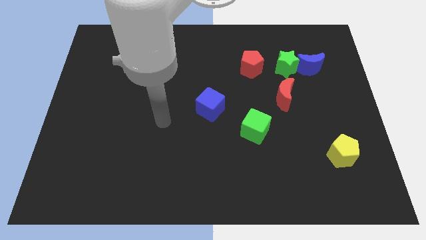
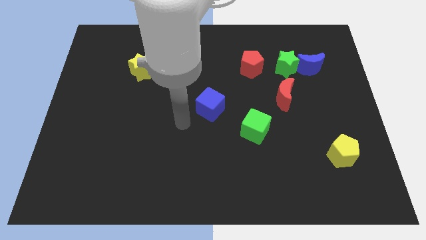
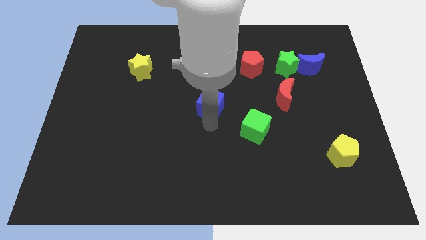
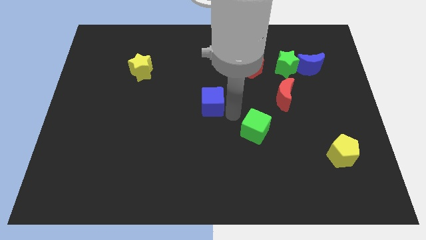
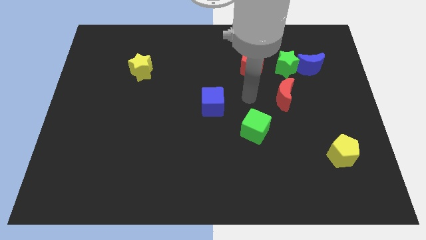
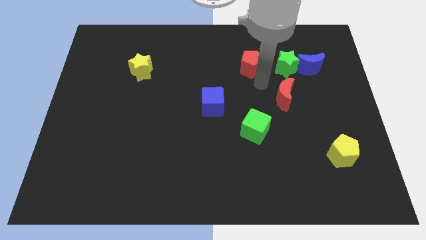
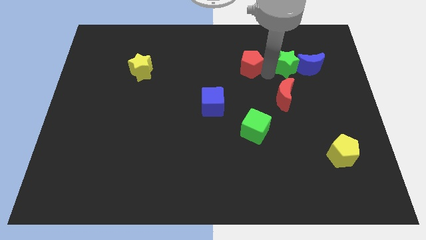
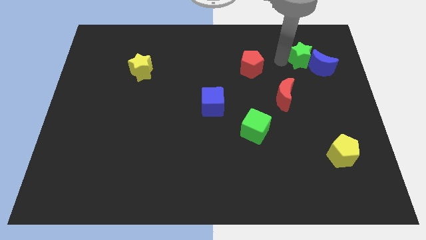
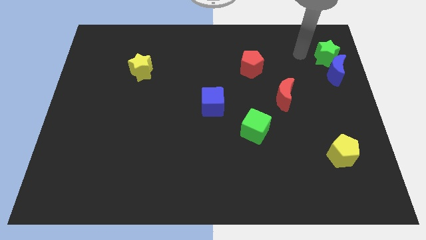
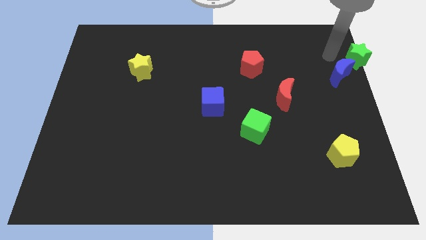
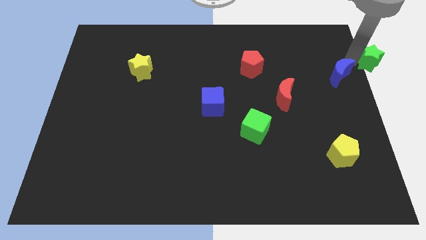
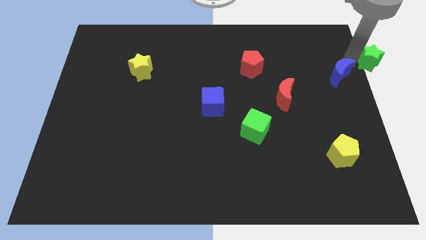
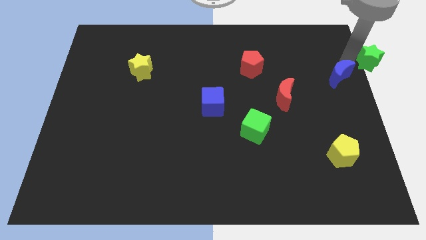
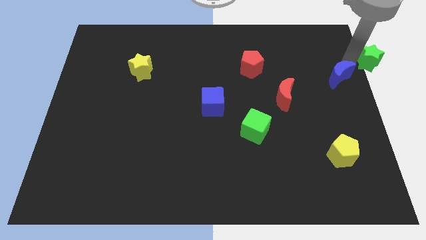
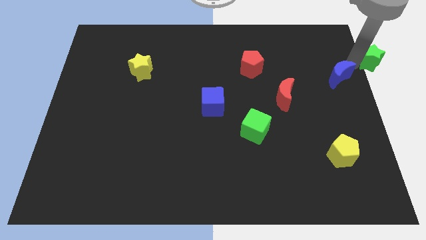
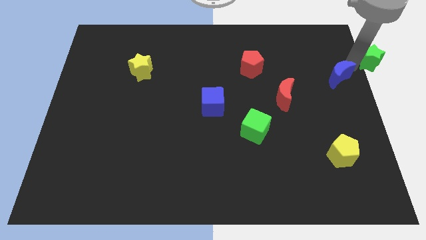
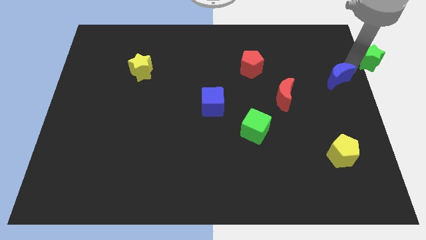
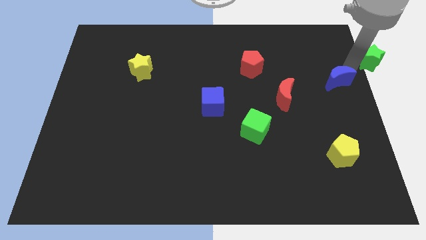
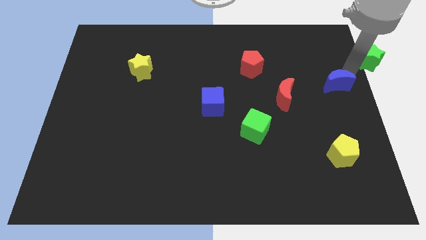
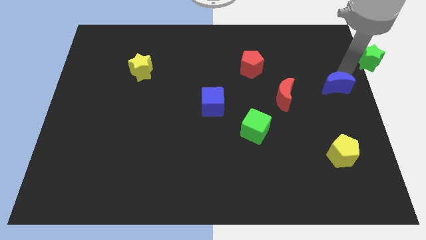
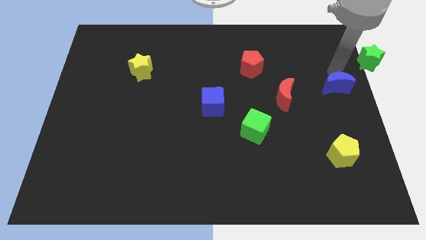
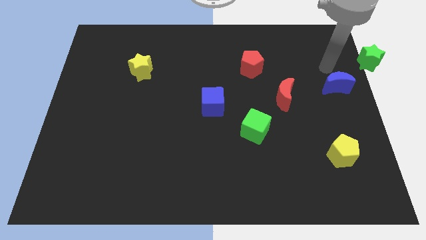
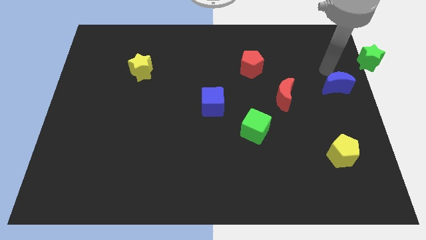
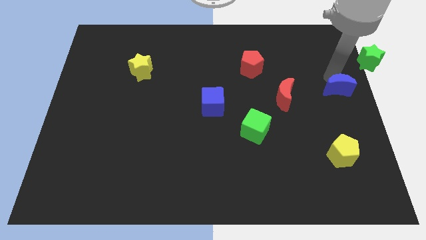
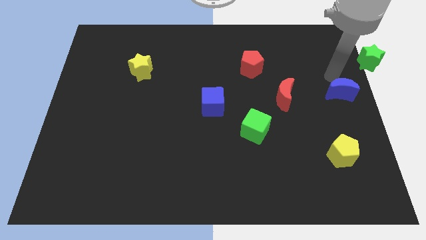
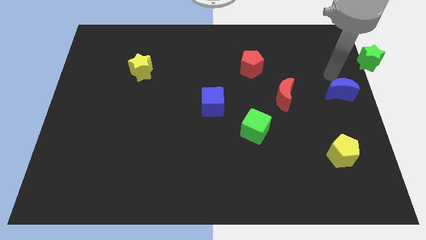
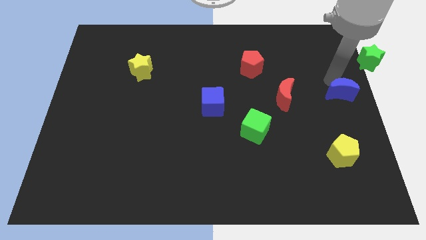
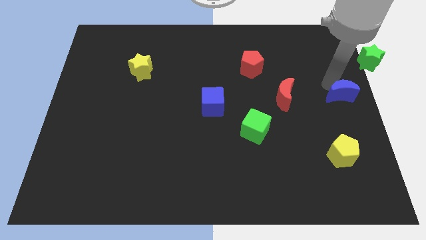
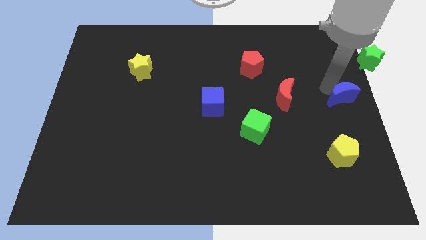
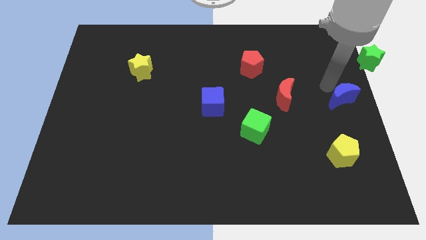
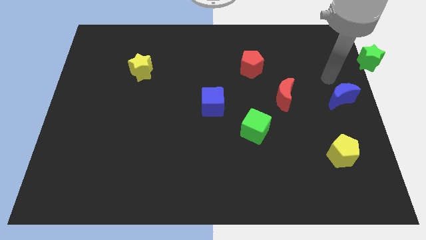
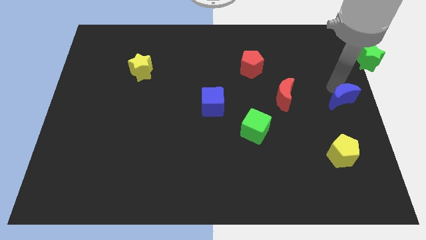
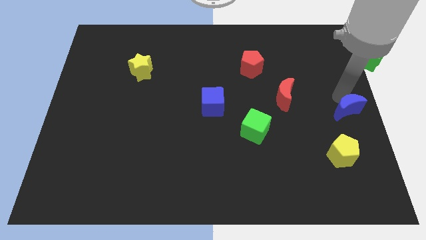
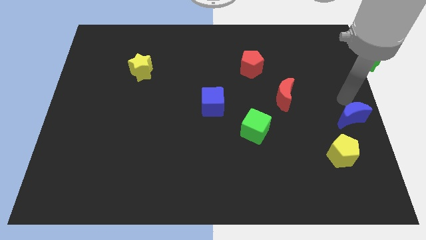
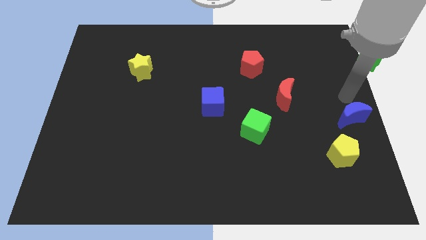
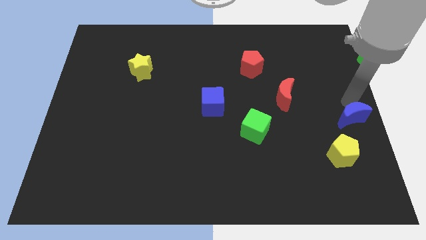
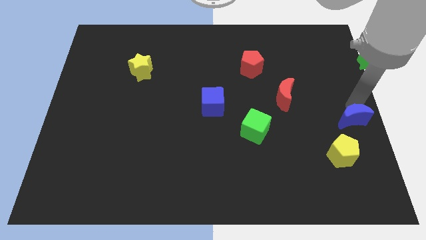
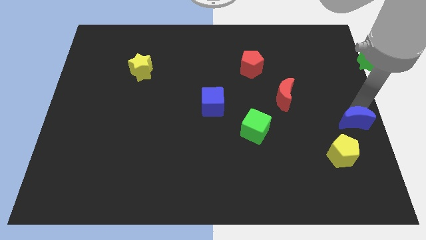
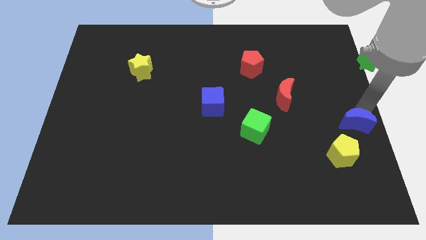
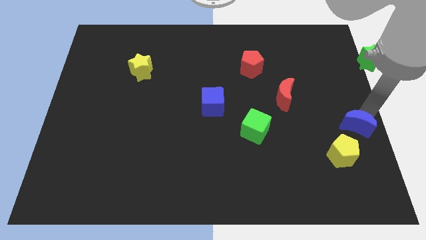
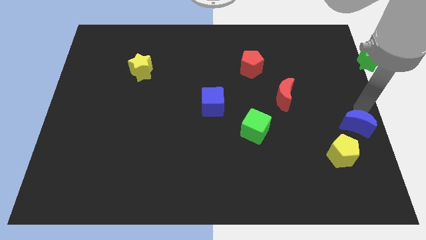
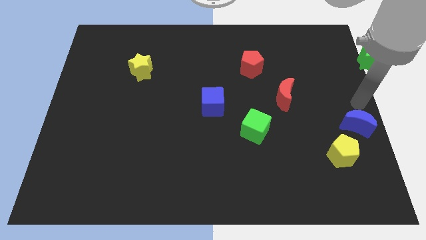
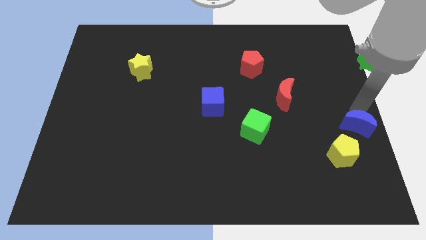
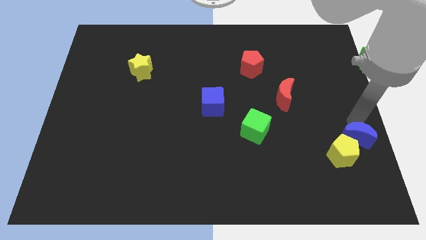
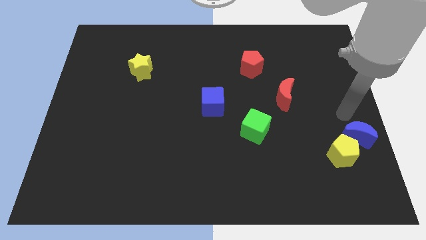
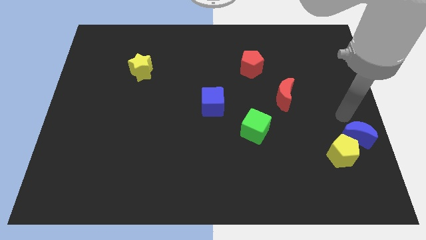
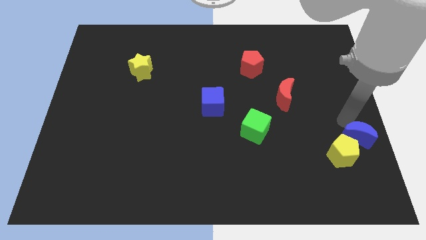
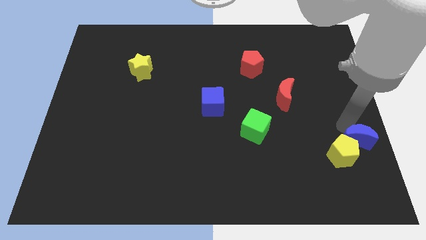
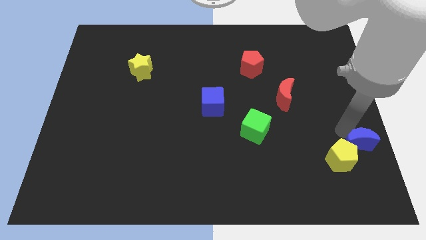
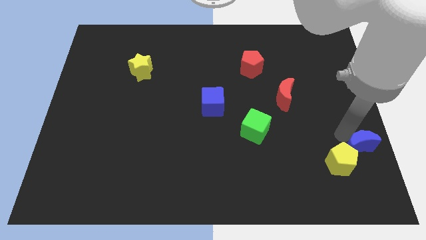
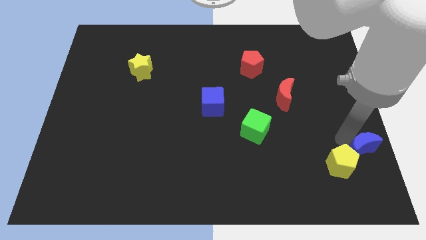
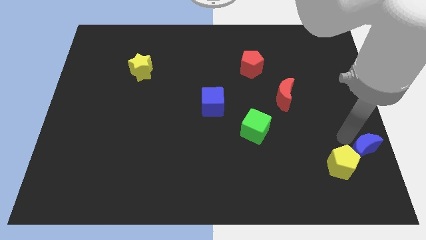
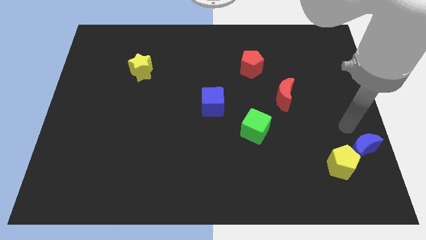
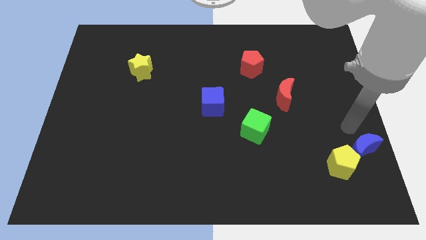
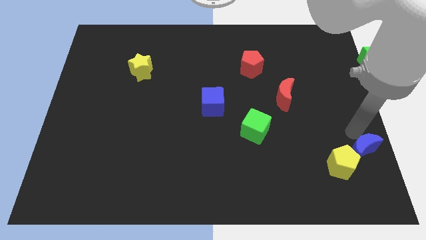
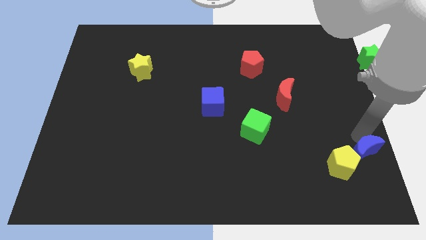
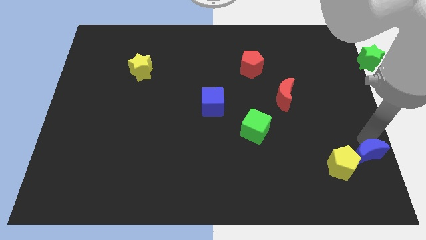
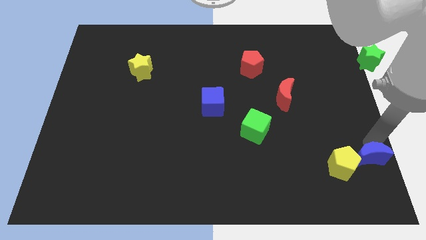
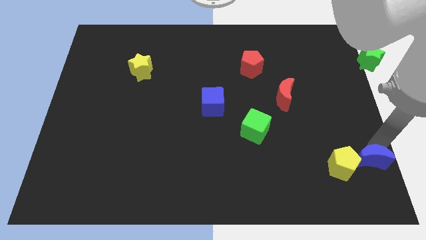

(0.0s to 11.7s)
put the blue moon to the bottom right of the board
